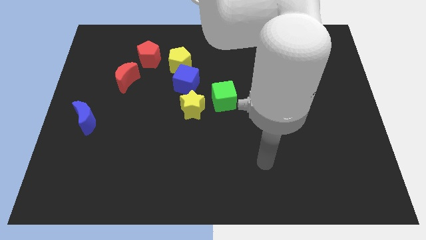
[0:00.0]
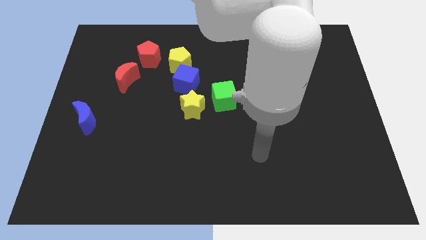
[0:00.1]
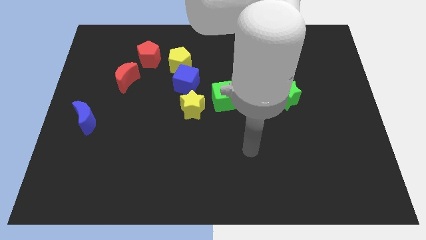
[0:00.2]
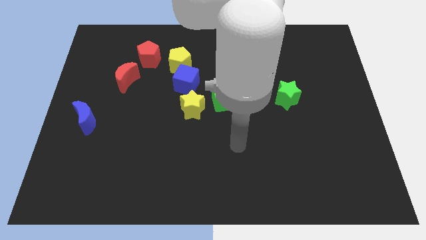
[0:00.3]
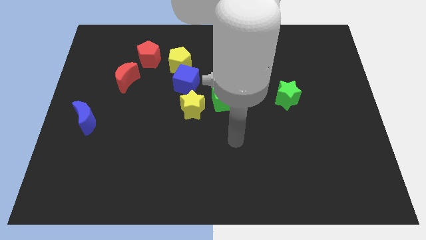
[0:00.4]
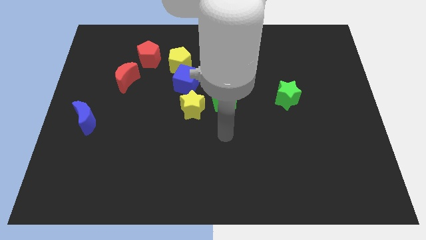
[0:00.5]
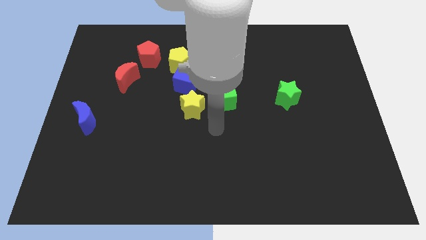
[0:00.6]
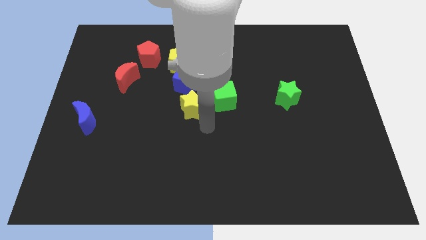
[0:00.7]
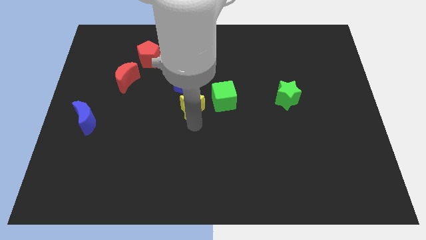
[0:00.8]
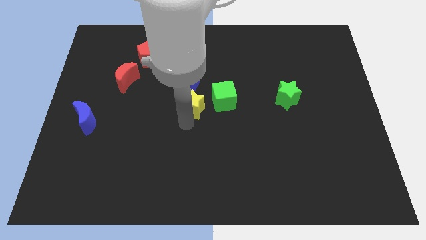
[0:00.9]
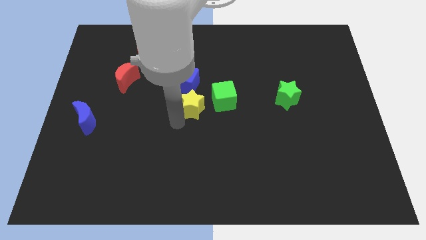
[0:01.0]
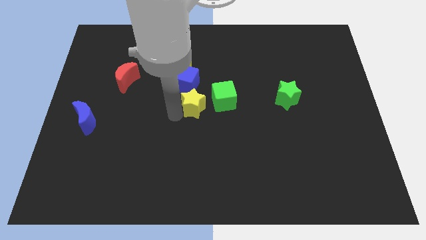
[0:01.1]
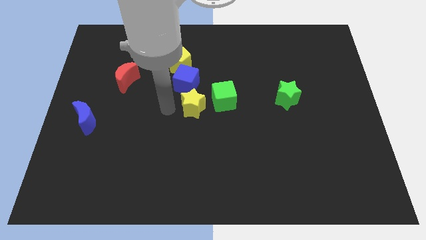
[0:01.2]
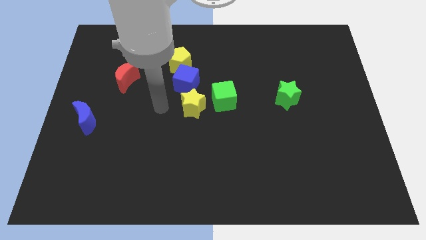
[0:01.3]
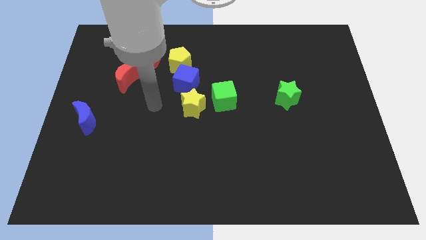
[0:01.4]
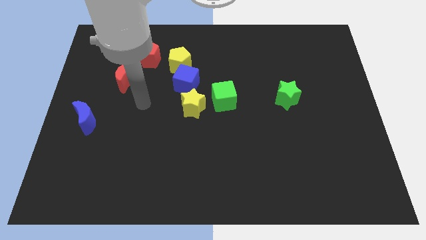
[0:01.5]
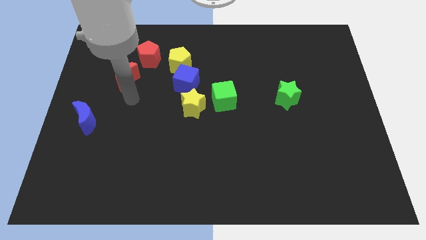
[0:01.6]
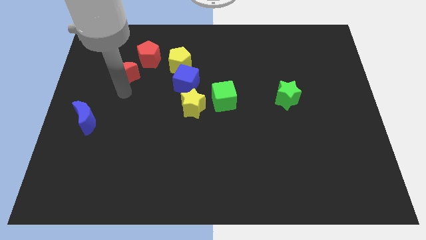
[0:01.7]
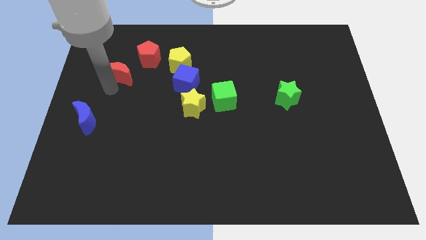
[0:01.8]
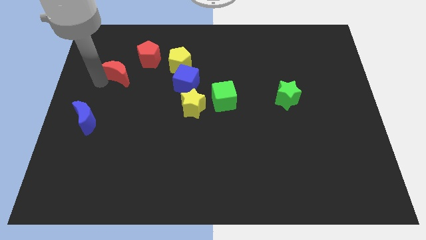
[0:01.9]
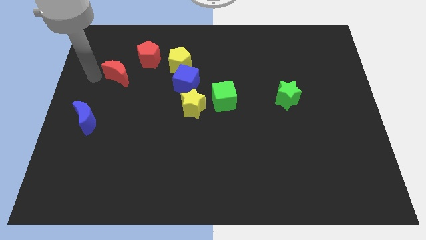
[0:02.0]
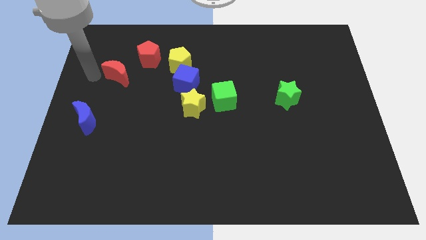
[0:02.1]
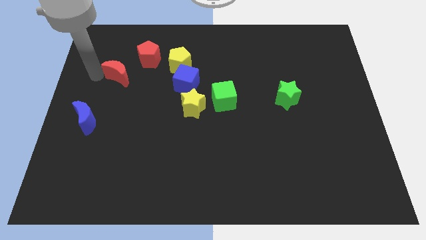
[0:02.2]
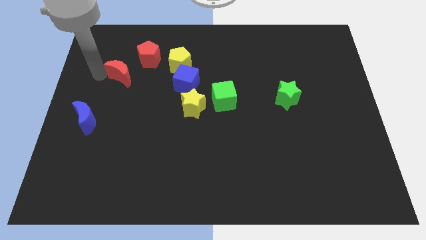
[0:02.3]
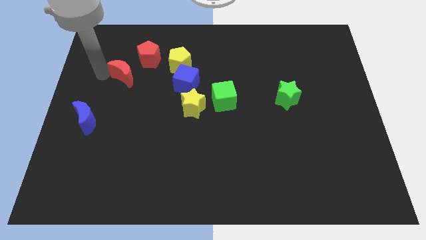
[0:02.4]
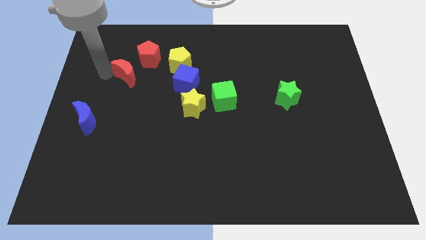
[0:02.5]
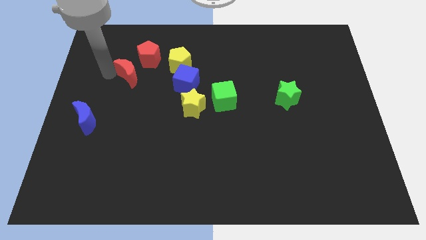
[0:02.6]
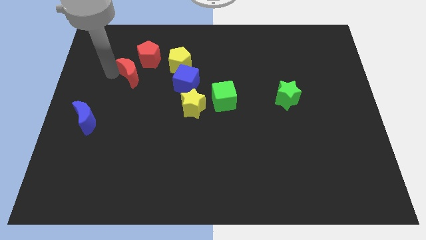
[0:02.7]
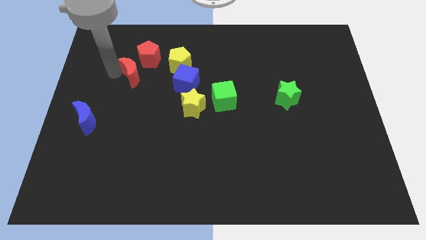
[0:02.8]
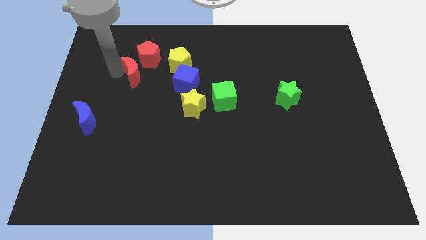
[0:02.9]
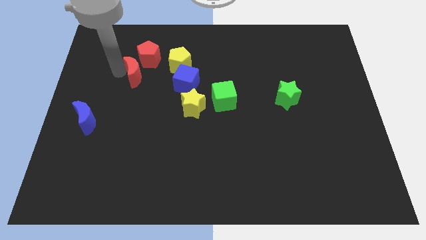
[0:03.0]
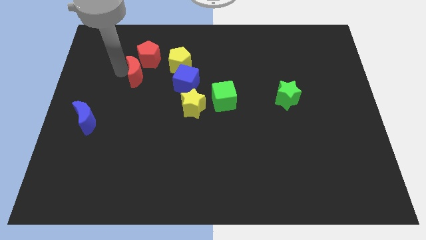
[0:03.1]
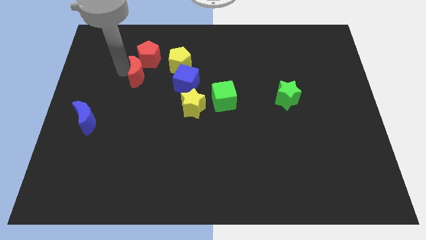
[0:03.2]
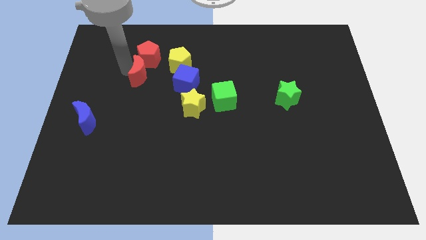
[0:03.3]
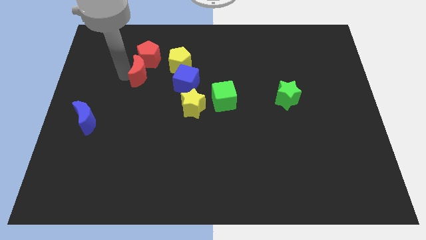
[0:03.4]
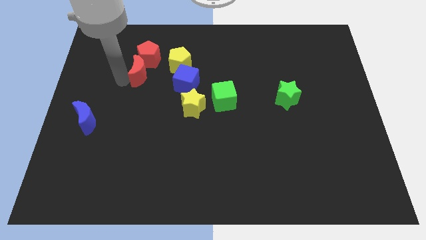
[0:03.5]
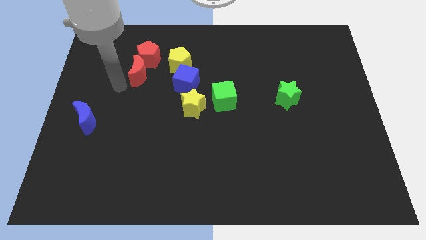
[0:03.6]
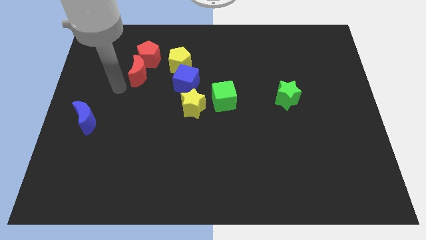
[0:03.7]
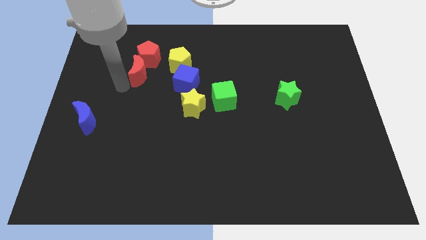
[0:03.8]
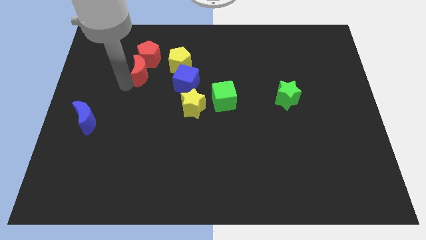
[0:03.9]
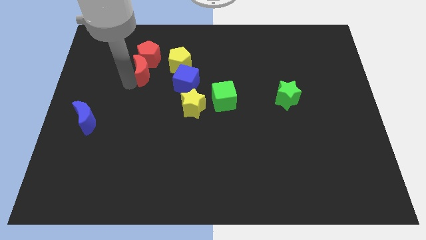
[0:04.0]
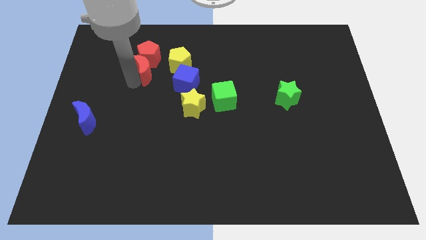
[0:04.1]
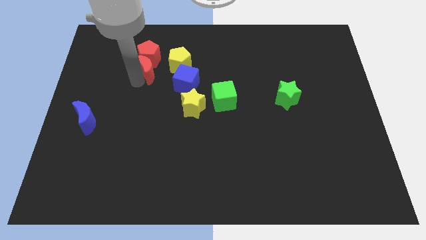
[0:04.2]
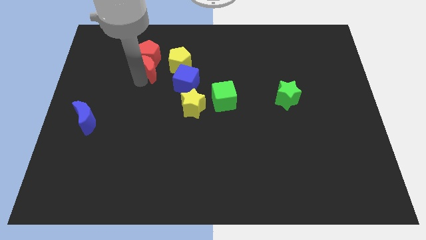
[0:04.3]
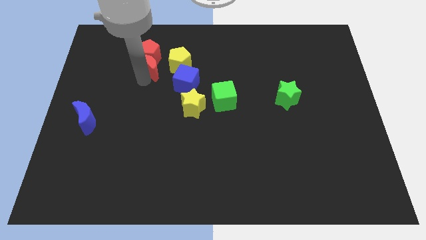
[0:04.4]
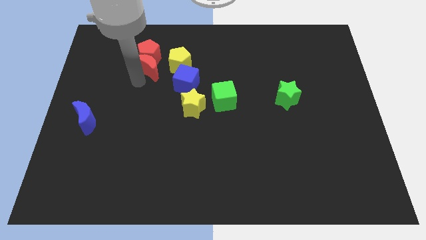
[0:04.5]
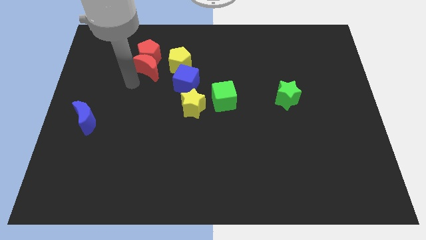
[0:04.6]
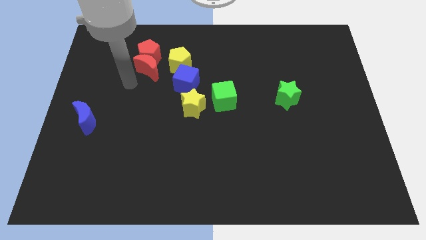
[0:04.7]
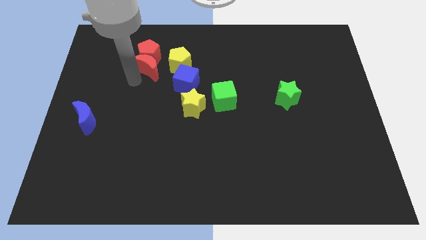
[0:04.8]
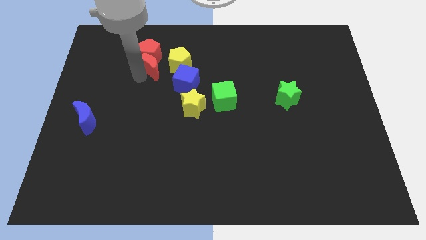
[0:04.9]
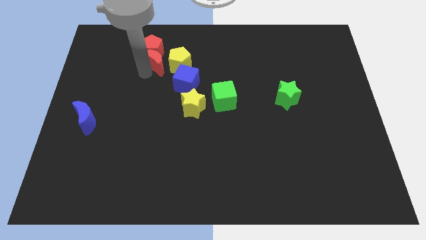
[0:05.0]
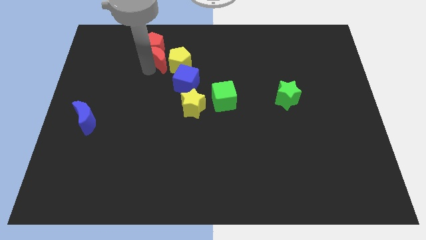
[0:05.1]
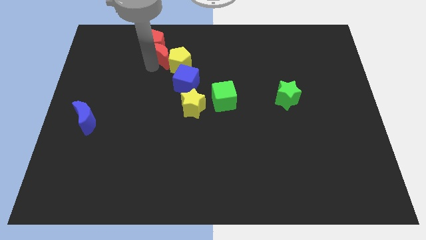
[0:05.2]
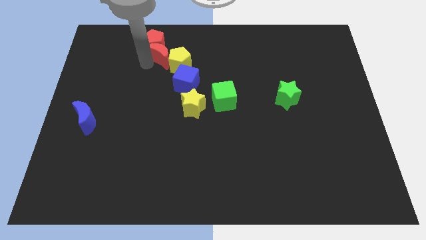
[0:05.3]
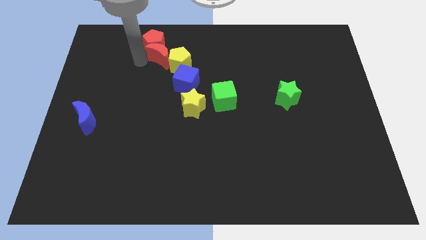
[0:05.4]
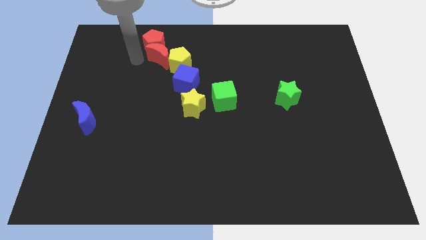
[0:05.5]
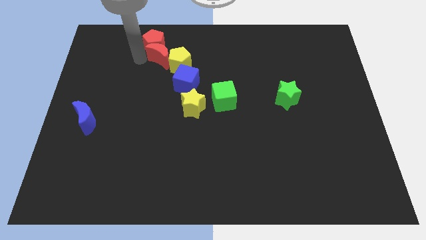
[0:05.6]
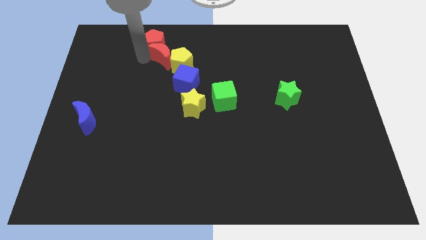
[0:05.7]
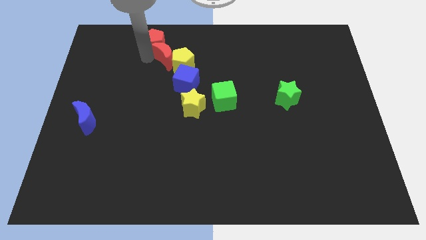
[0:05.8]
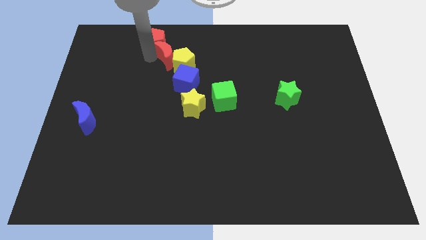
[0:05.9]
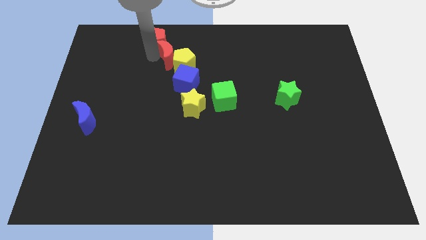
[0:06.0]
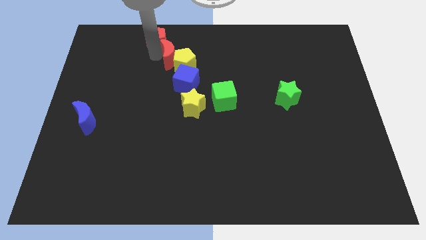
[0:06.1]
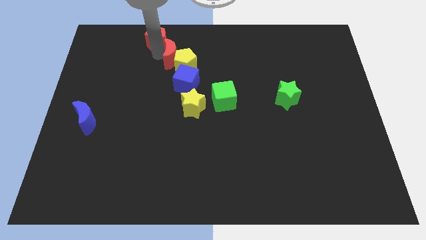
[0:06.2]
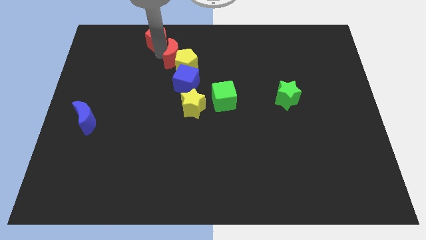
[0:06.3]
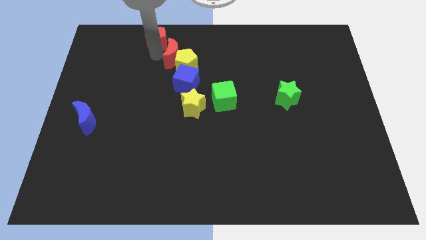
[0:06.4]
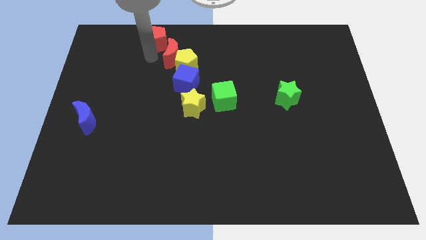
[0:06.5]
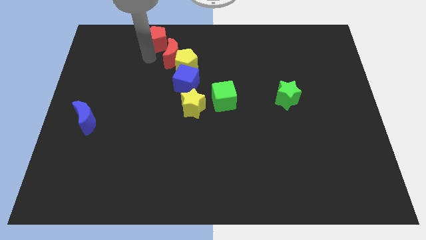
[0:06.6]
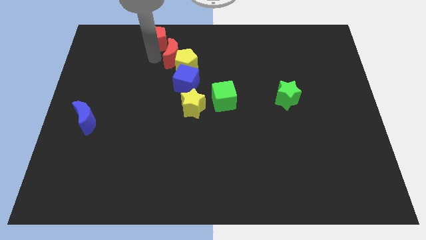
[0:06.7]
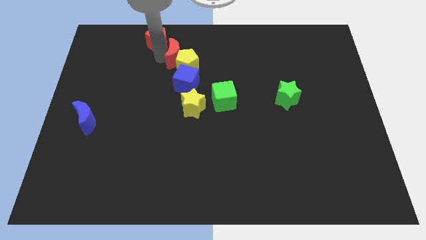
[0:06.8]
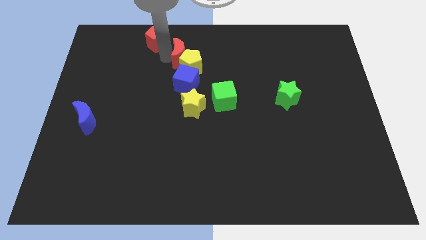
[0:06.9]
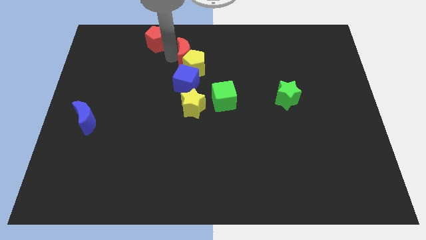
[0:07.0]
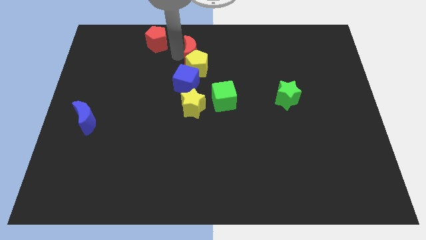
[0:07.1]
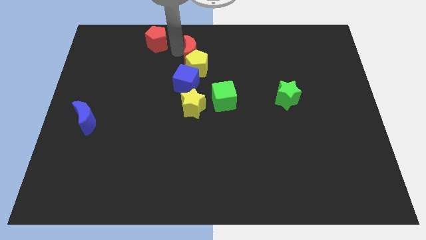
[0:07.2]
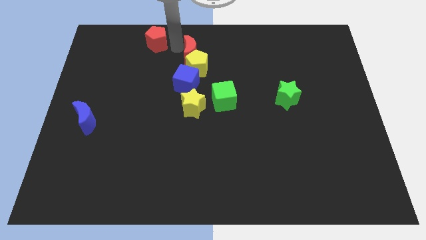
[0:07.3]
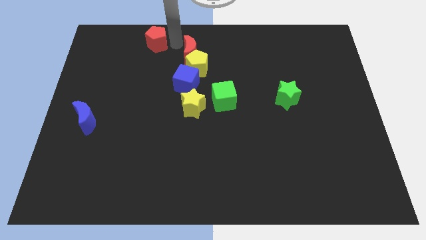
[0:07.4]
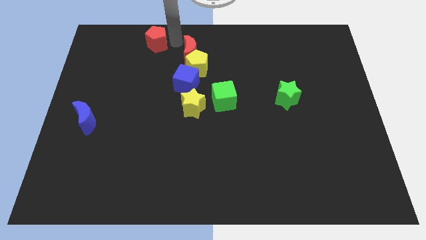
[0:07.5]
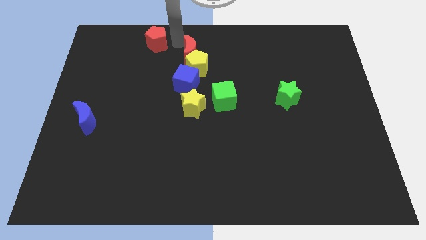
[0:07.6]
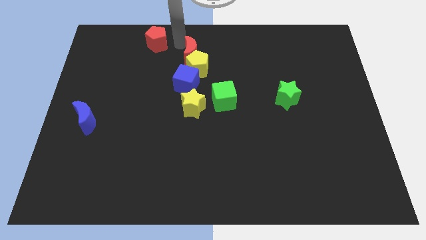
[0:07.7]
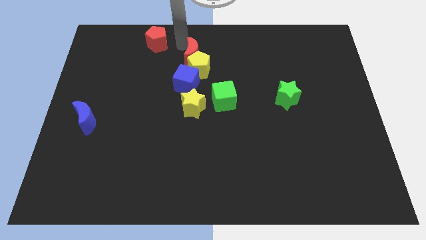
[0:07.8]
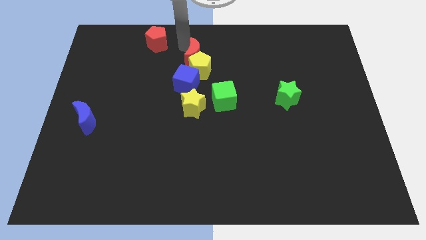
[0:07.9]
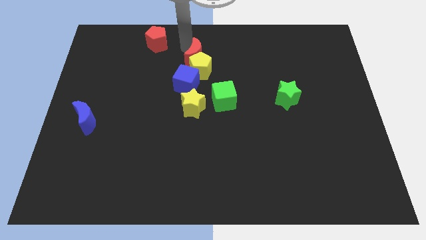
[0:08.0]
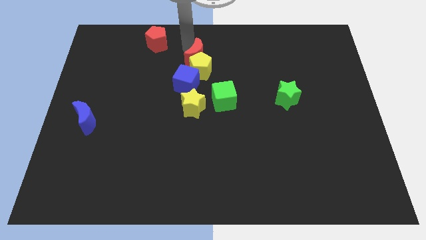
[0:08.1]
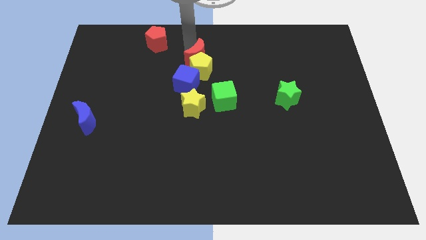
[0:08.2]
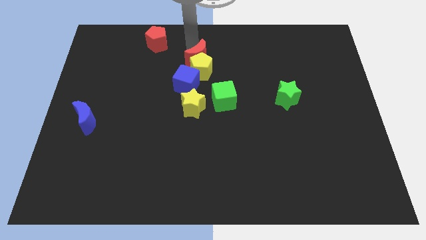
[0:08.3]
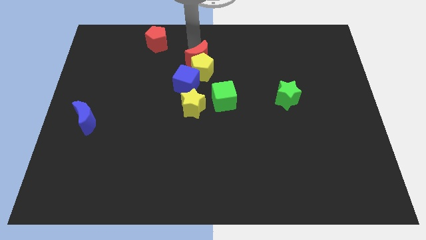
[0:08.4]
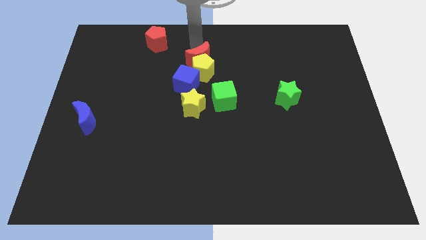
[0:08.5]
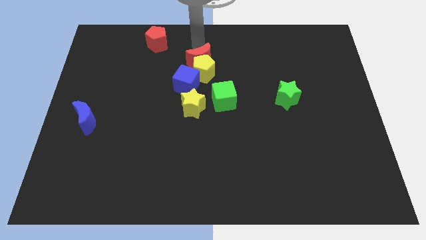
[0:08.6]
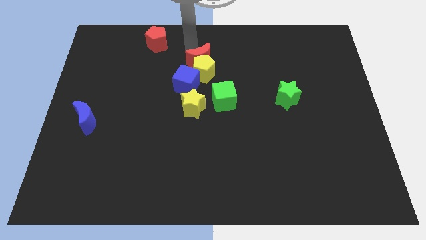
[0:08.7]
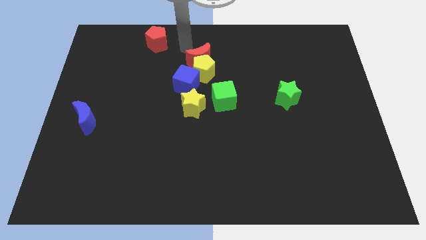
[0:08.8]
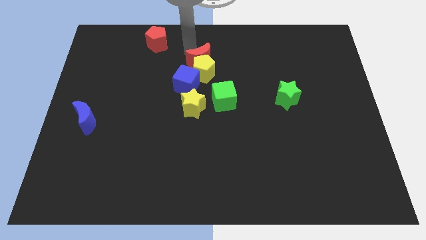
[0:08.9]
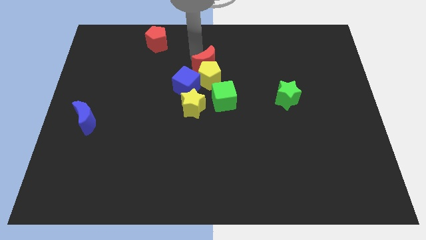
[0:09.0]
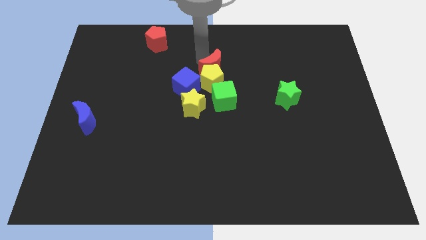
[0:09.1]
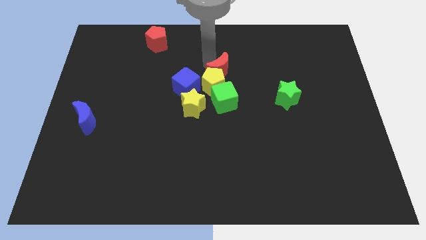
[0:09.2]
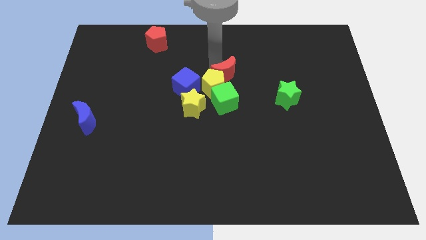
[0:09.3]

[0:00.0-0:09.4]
slide the red moon right of the blue cube
